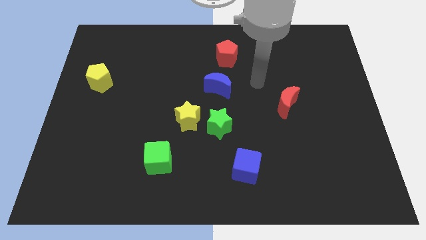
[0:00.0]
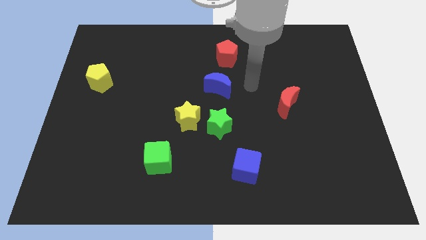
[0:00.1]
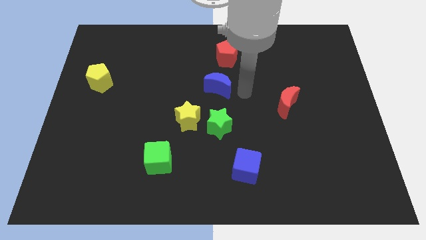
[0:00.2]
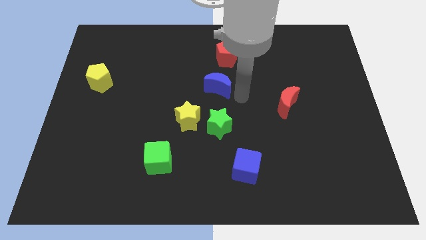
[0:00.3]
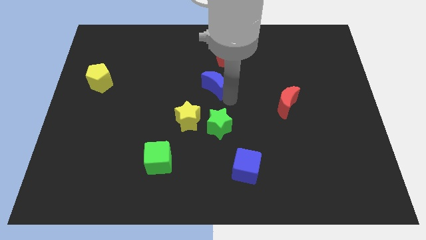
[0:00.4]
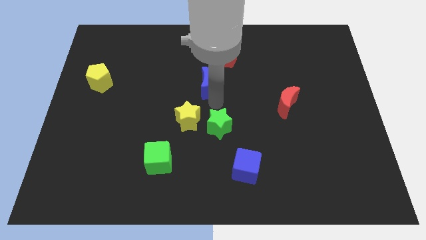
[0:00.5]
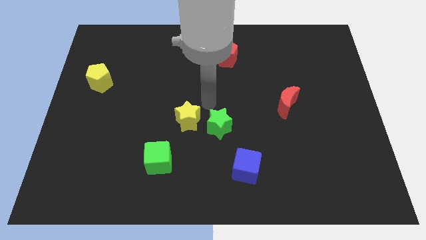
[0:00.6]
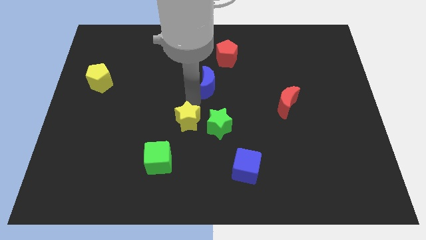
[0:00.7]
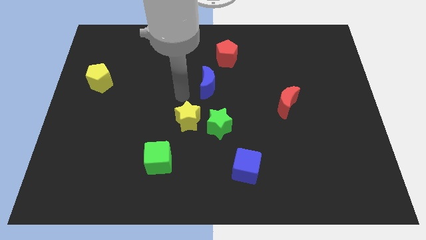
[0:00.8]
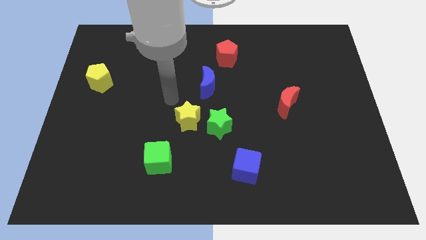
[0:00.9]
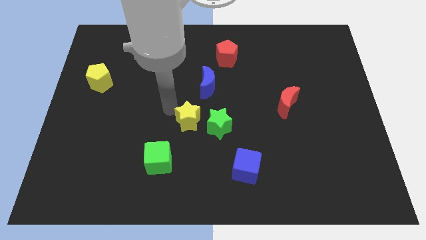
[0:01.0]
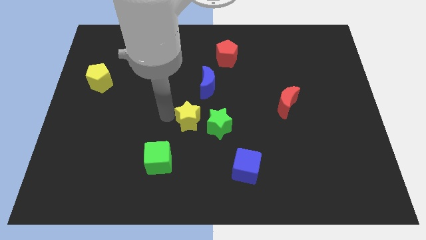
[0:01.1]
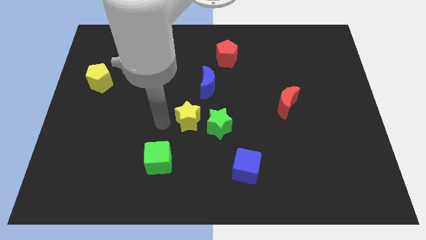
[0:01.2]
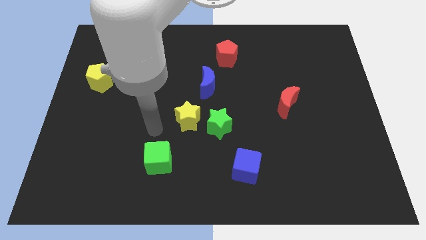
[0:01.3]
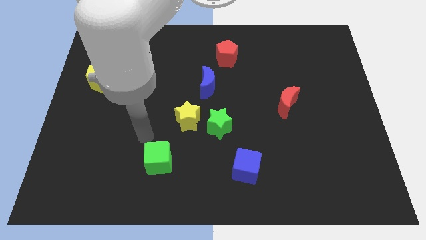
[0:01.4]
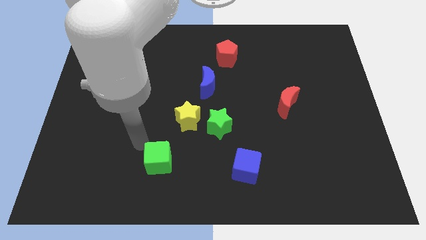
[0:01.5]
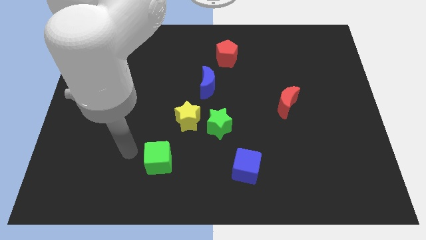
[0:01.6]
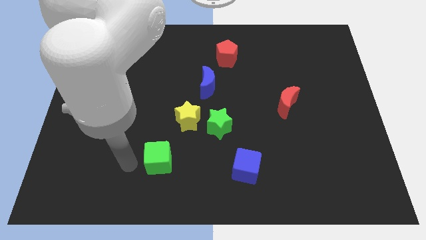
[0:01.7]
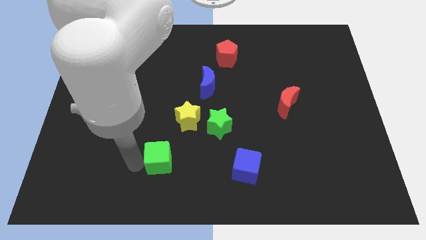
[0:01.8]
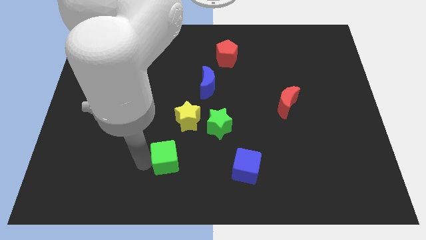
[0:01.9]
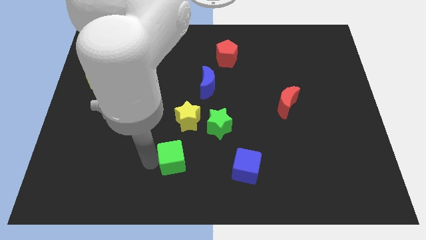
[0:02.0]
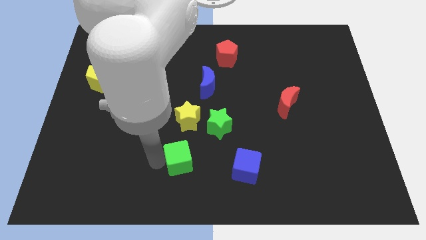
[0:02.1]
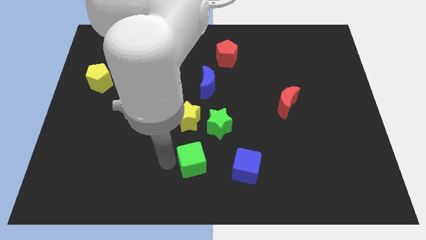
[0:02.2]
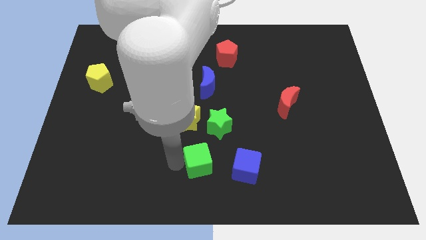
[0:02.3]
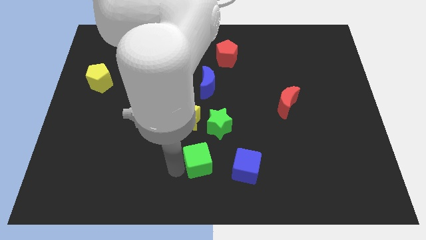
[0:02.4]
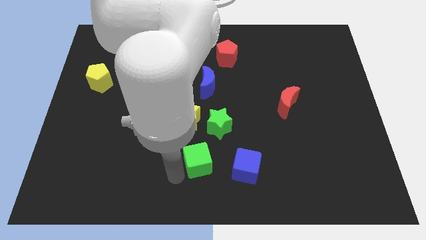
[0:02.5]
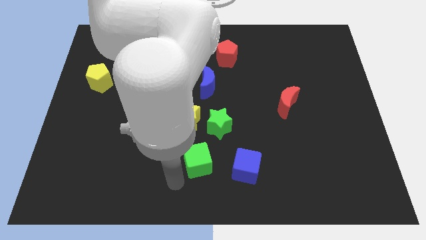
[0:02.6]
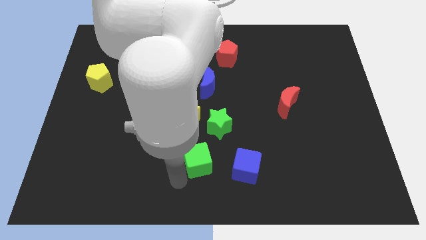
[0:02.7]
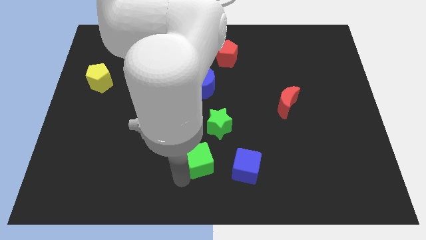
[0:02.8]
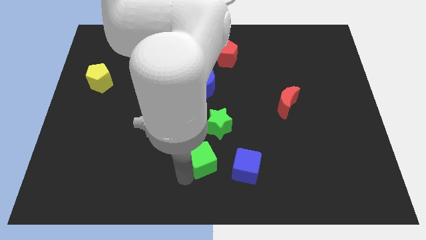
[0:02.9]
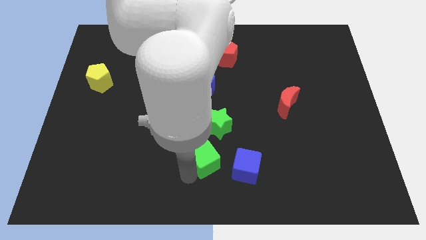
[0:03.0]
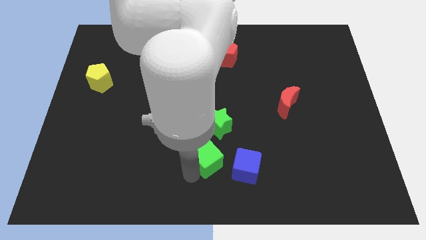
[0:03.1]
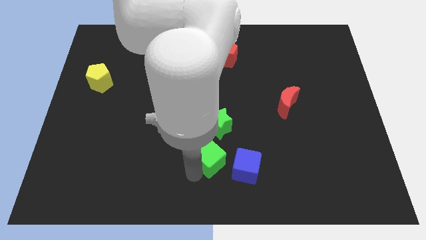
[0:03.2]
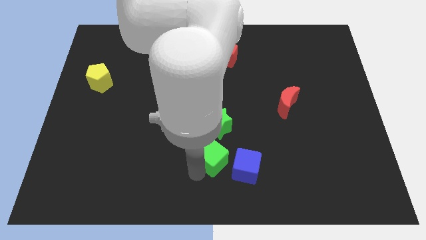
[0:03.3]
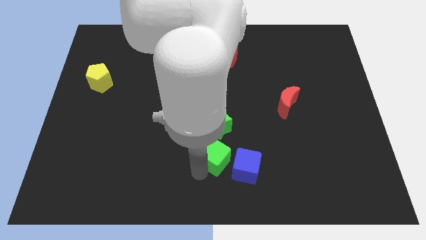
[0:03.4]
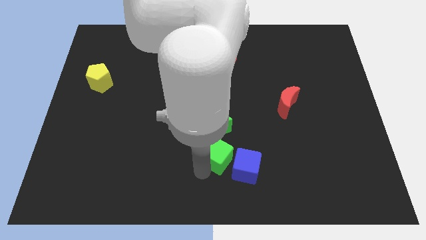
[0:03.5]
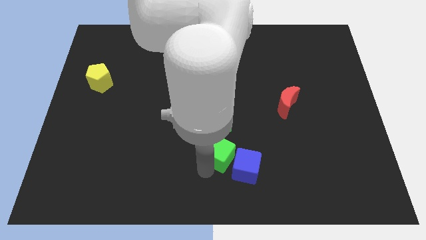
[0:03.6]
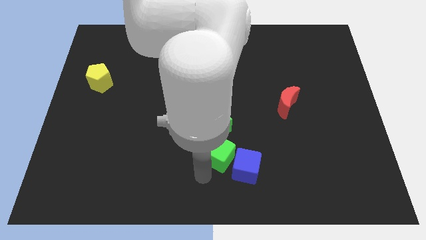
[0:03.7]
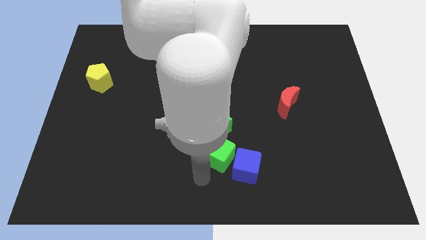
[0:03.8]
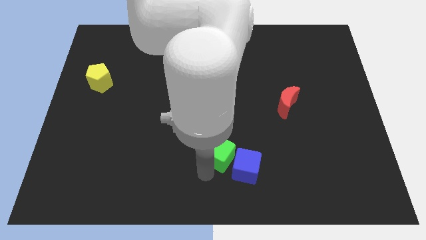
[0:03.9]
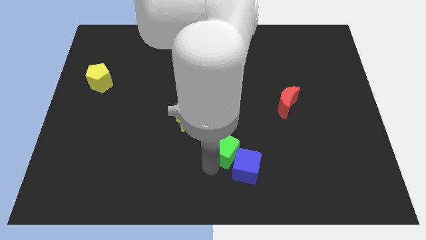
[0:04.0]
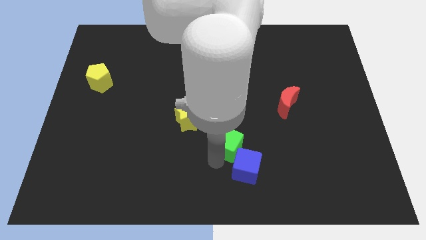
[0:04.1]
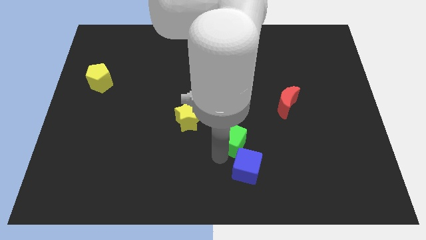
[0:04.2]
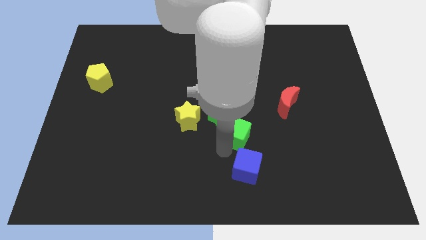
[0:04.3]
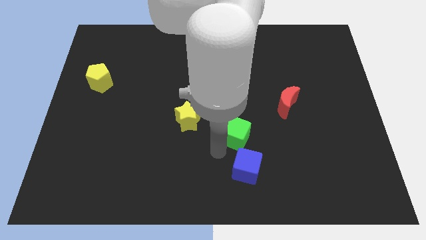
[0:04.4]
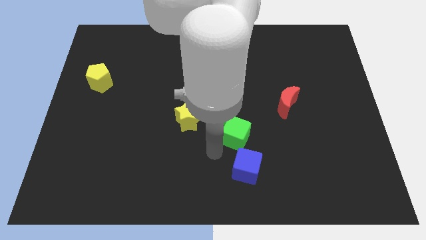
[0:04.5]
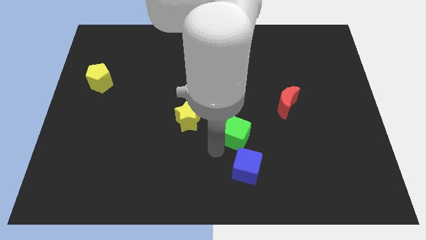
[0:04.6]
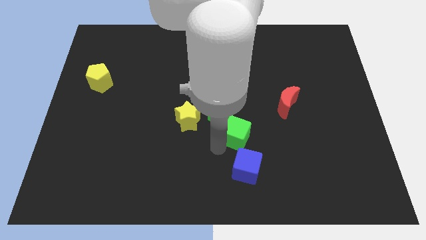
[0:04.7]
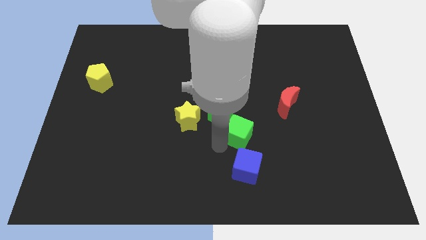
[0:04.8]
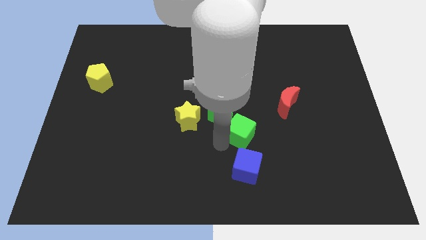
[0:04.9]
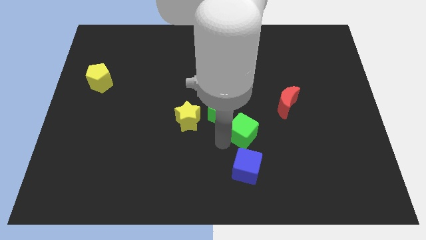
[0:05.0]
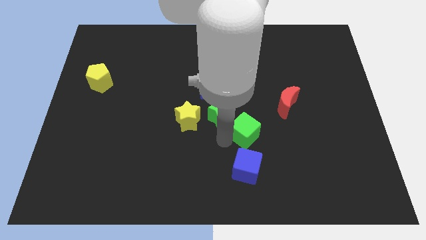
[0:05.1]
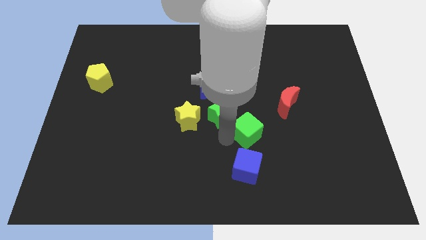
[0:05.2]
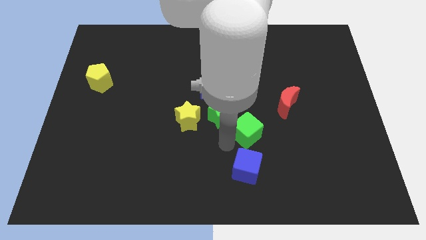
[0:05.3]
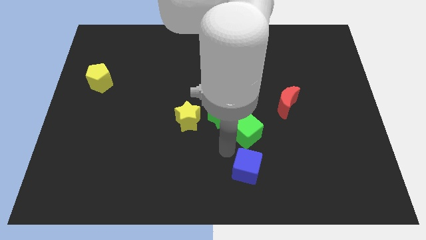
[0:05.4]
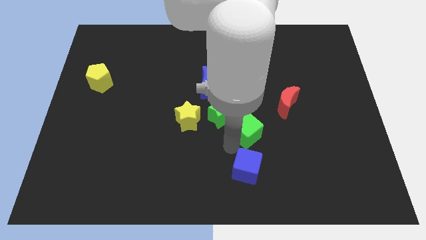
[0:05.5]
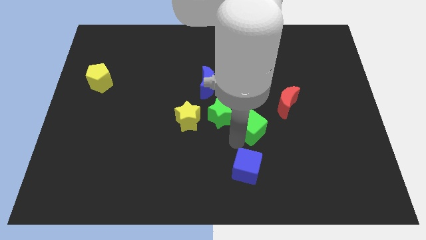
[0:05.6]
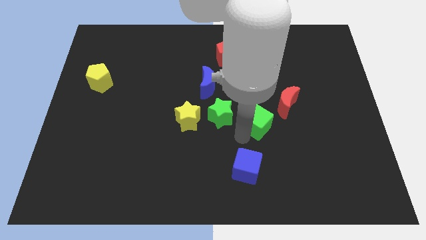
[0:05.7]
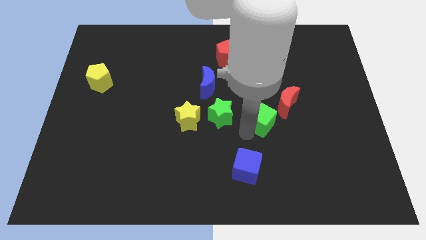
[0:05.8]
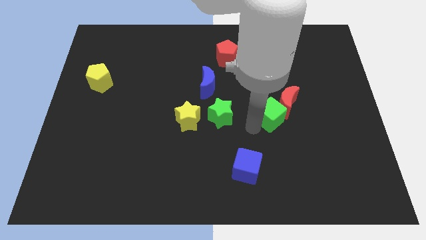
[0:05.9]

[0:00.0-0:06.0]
move the green cube to the red moon

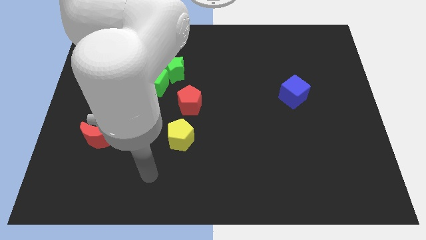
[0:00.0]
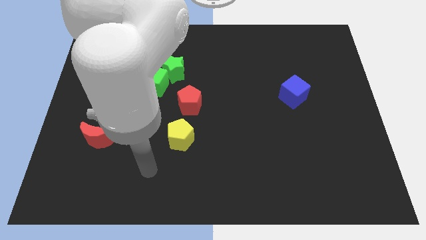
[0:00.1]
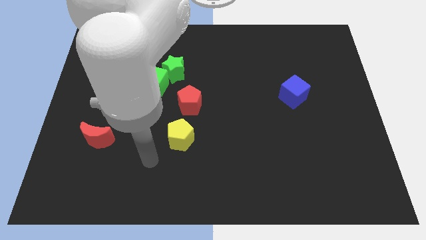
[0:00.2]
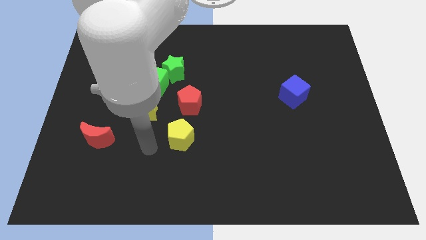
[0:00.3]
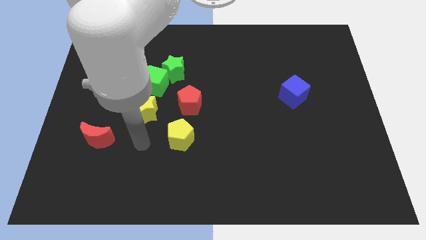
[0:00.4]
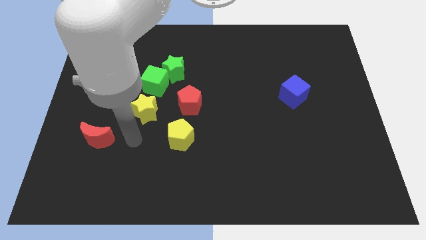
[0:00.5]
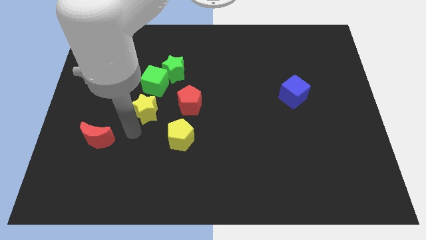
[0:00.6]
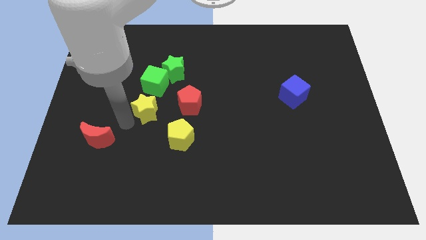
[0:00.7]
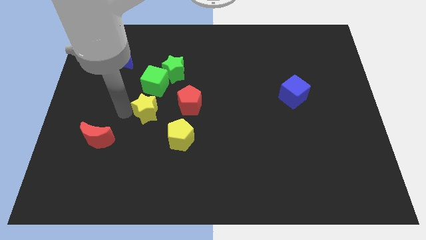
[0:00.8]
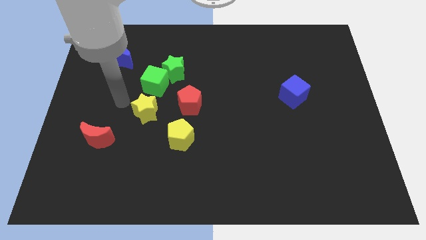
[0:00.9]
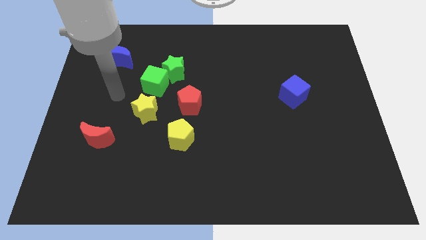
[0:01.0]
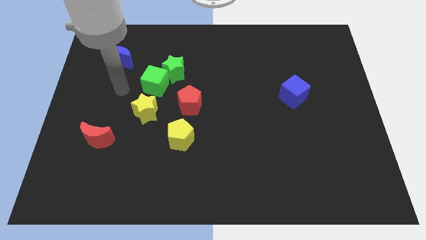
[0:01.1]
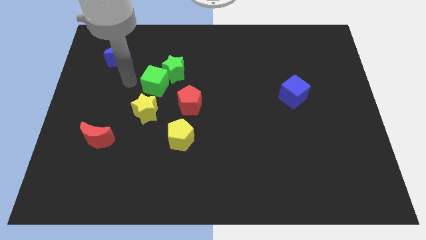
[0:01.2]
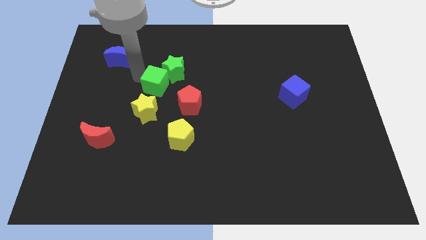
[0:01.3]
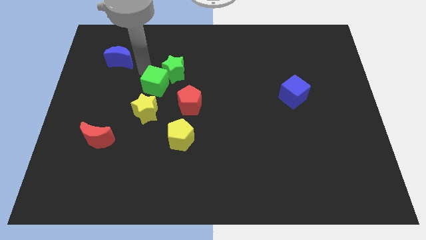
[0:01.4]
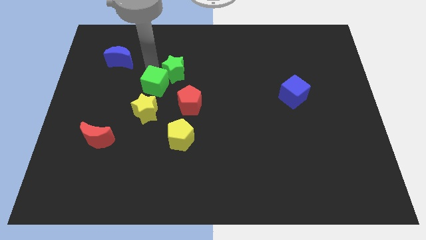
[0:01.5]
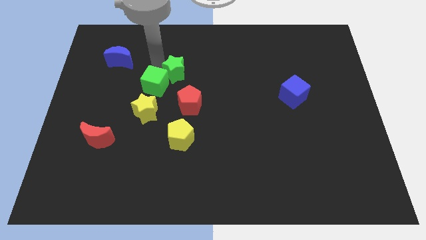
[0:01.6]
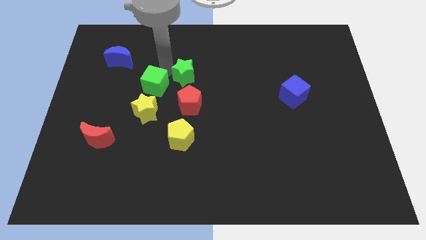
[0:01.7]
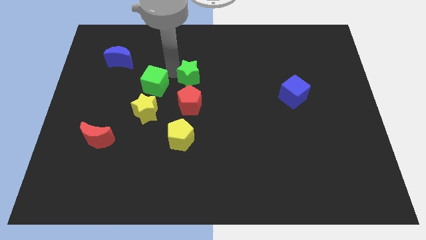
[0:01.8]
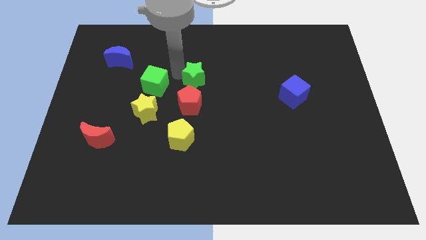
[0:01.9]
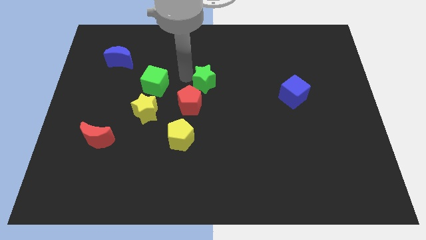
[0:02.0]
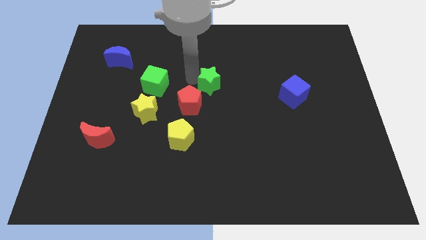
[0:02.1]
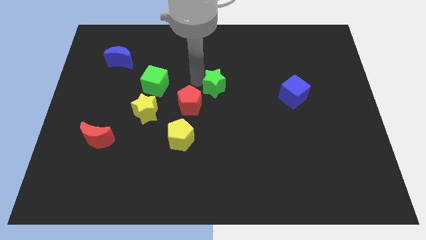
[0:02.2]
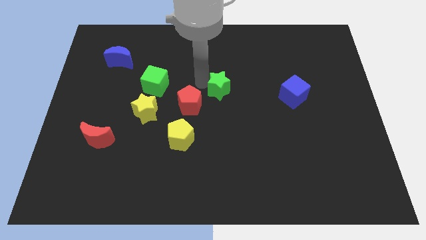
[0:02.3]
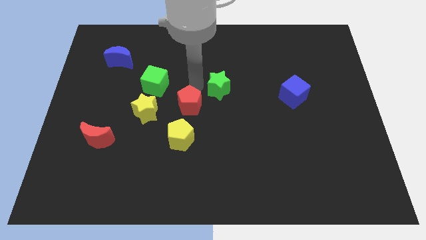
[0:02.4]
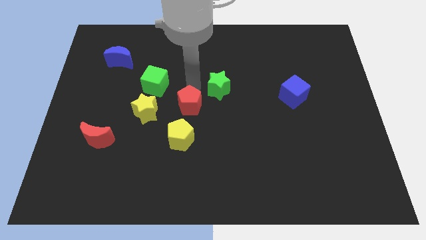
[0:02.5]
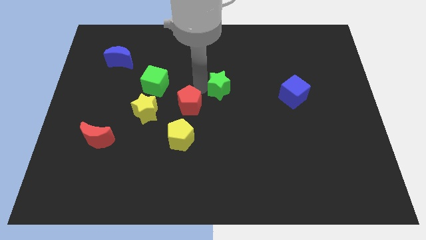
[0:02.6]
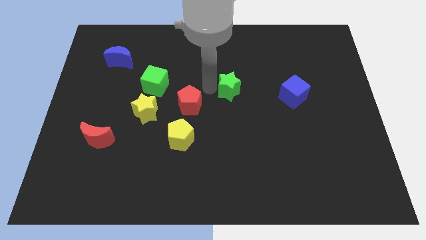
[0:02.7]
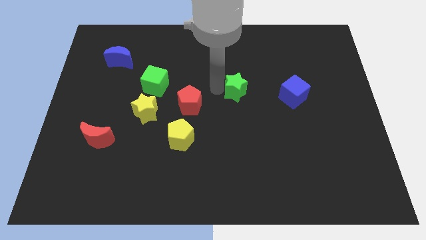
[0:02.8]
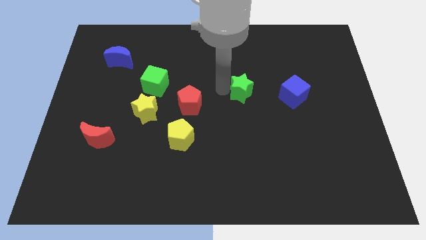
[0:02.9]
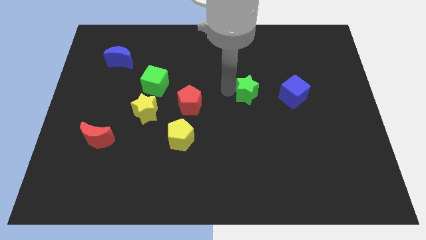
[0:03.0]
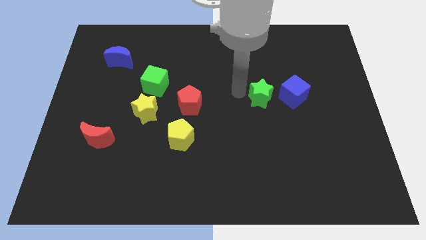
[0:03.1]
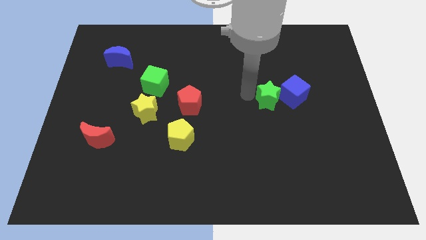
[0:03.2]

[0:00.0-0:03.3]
move the green star close to the blue cube
